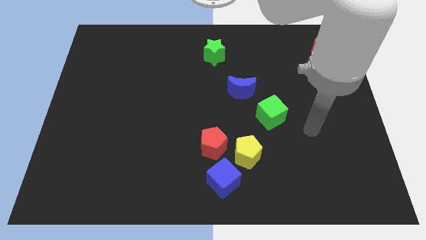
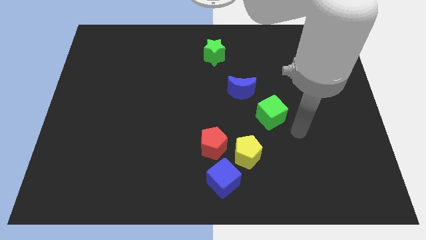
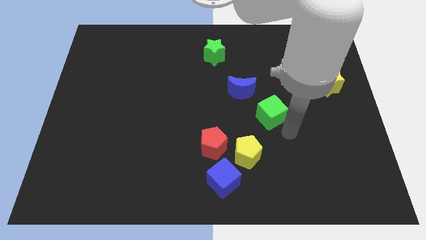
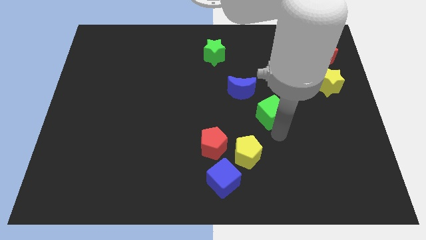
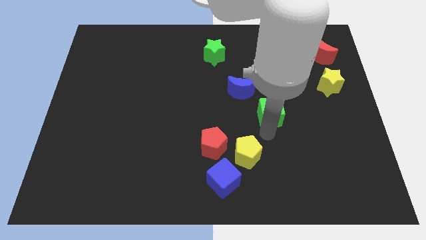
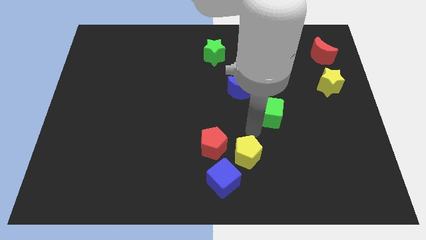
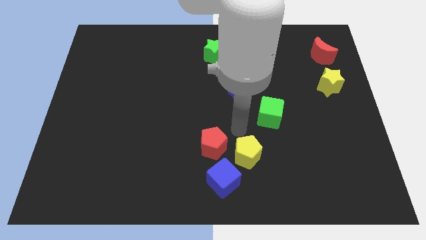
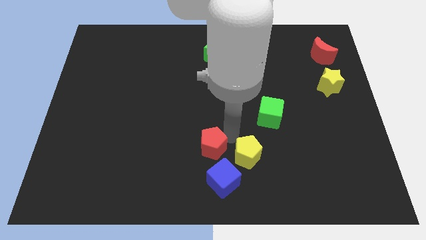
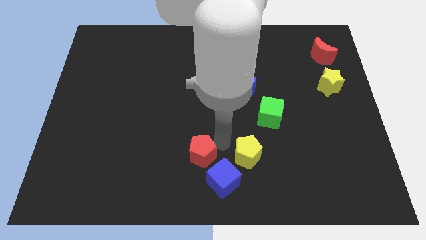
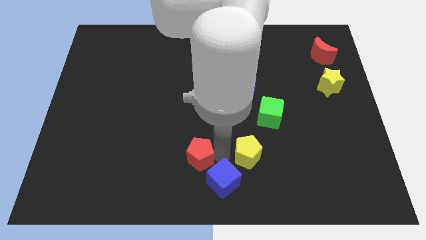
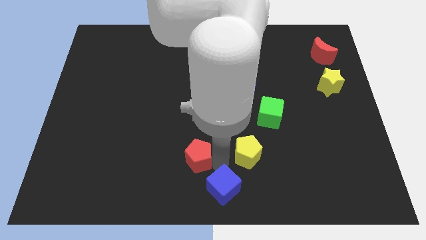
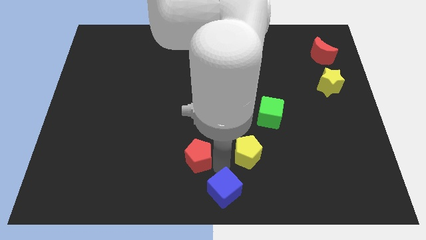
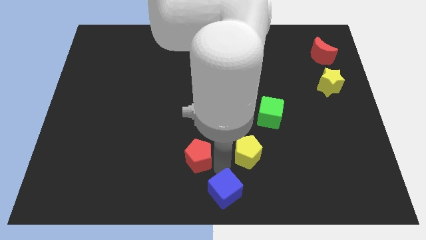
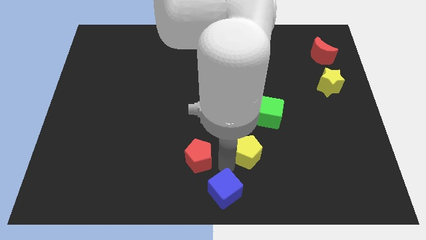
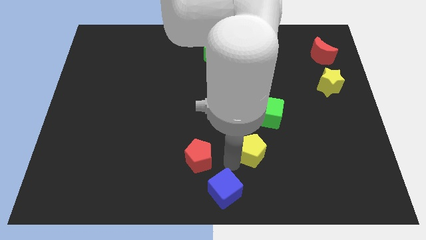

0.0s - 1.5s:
move the yellow pentagon away from the red pentagon and blue cube

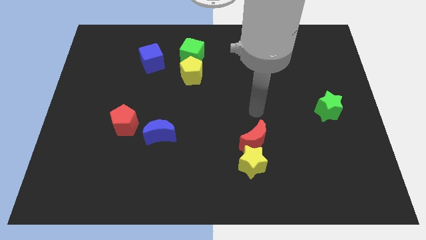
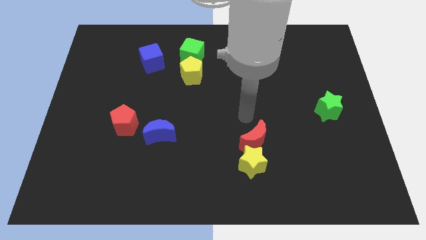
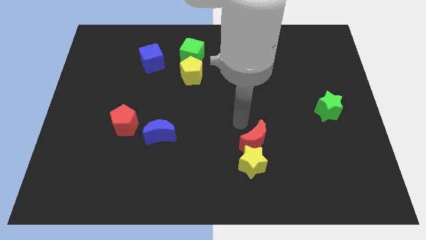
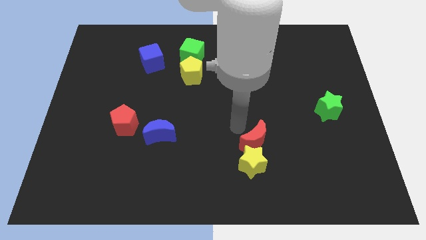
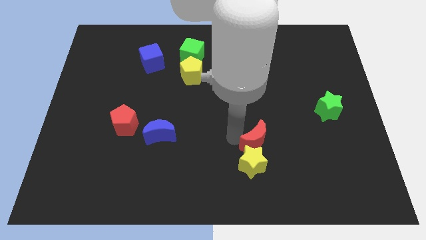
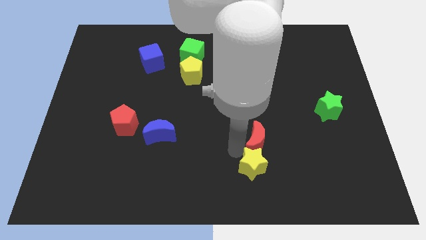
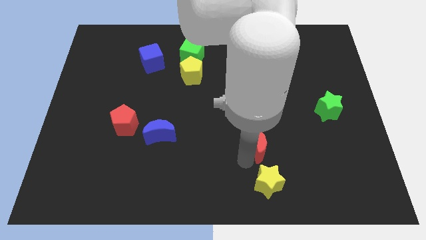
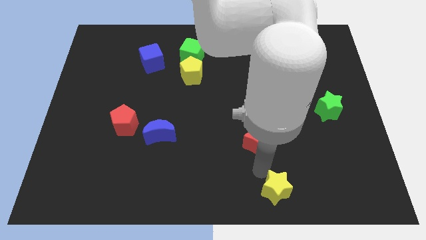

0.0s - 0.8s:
separate the red moon from the yellow star

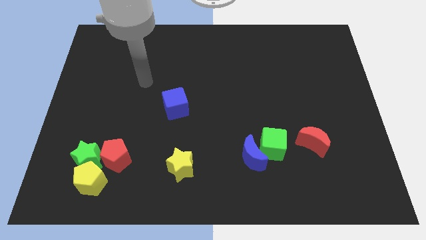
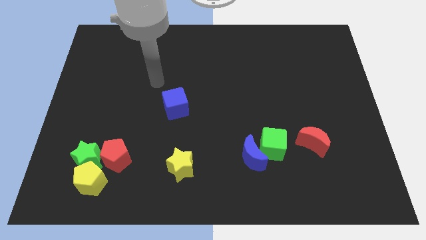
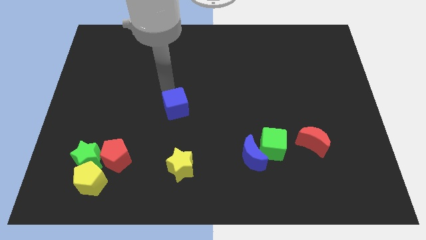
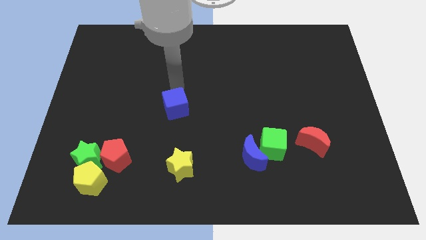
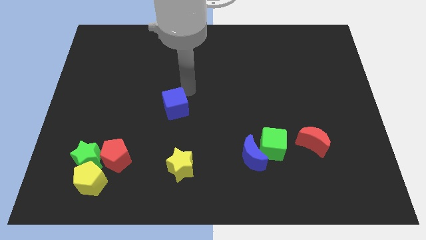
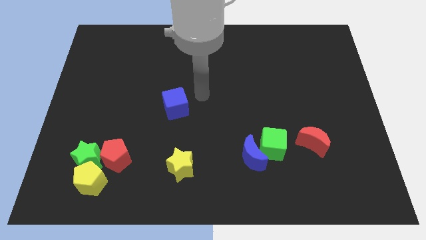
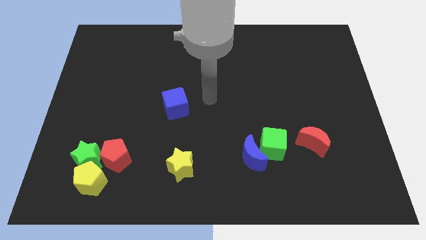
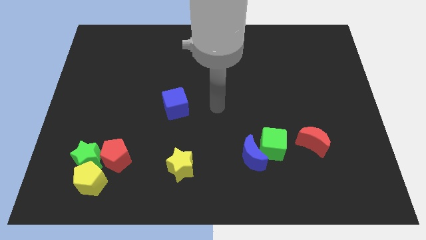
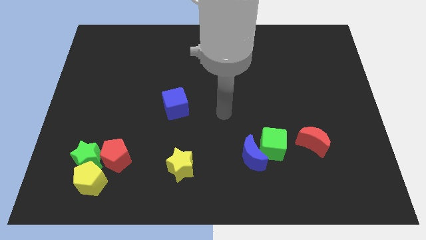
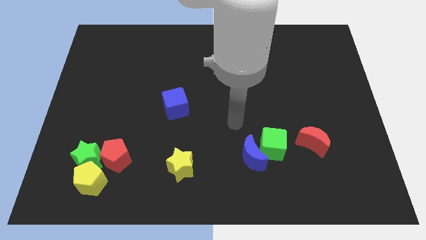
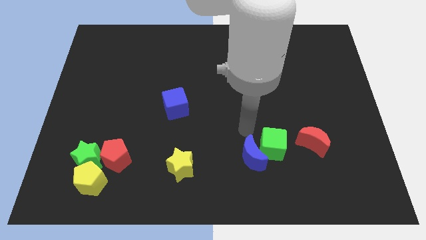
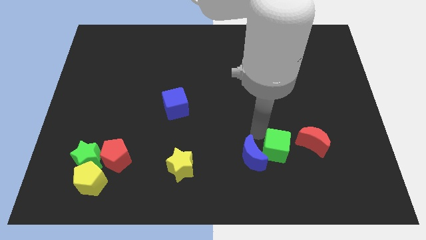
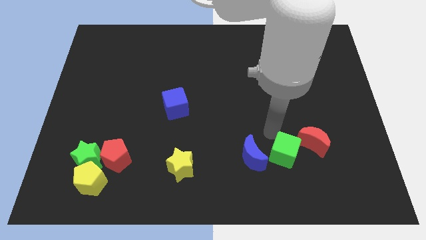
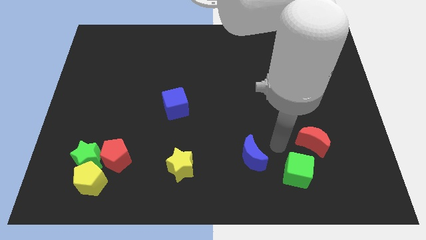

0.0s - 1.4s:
pull the blue moon apart from the green cube

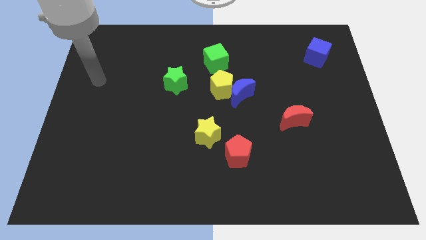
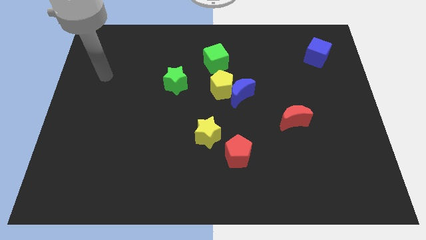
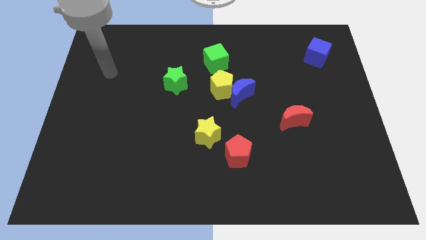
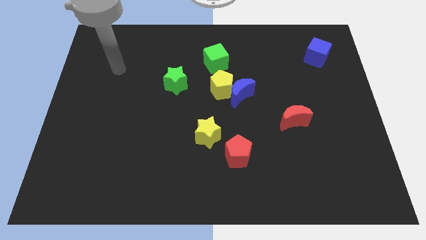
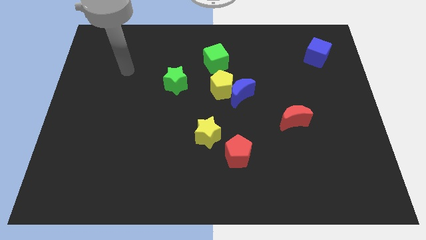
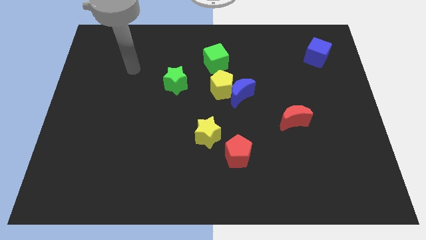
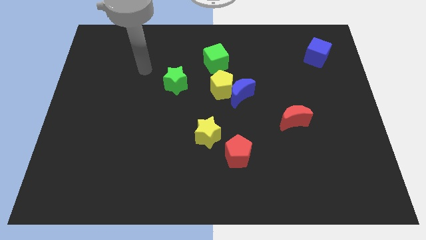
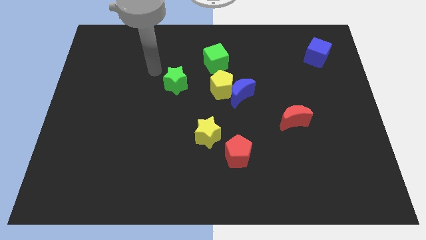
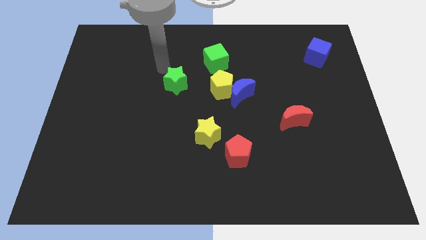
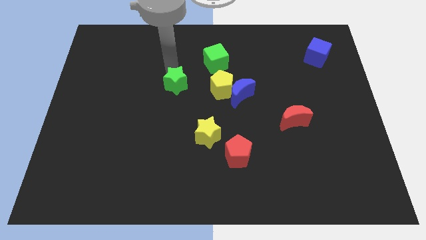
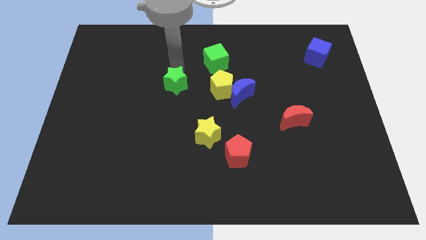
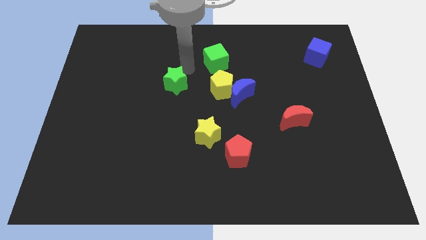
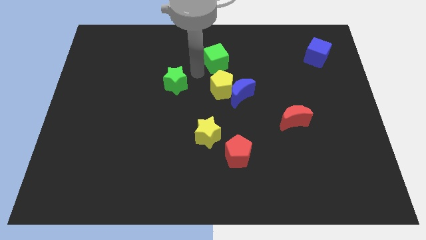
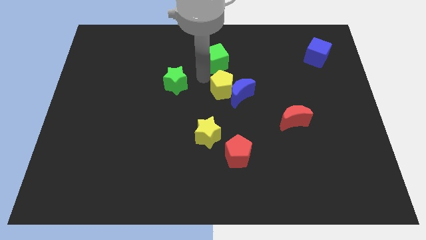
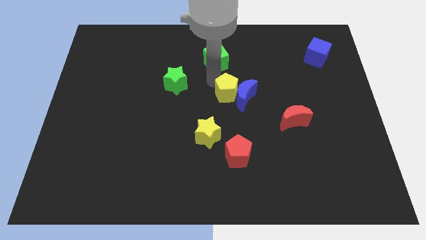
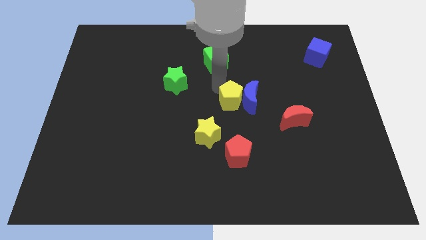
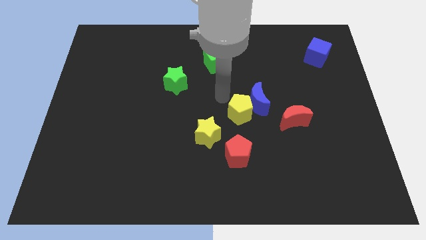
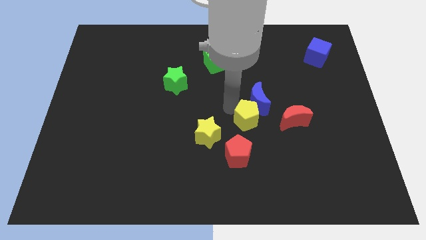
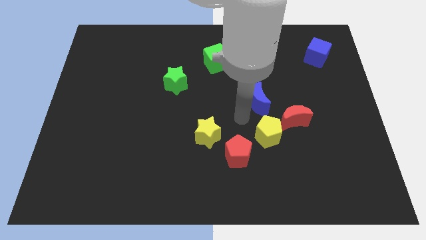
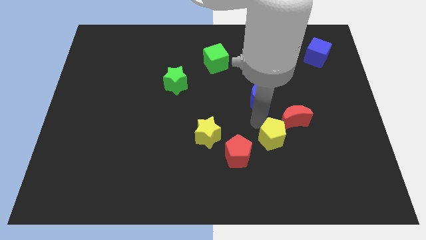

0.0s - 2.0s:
move the blue moon away from the yellow pentagon

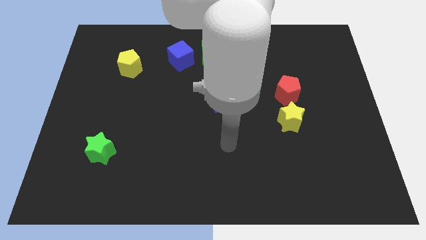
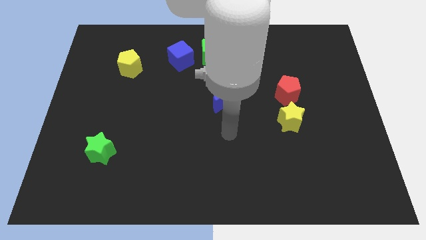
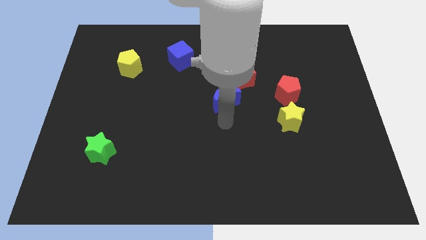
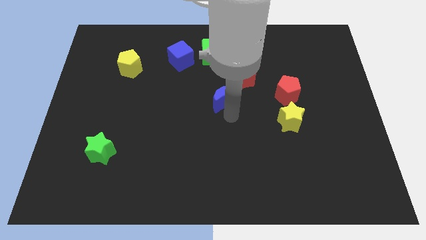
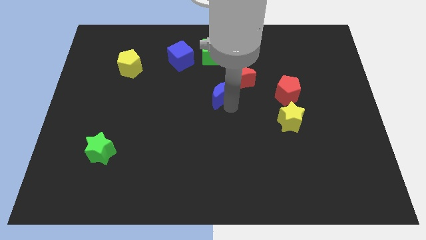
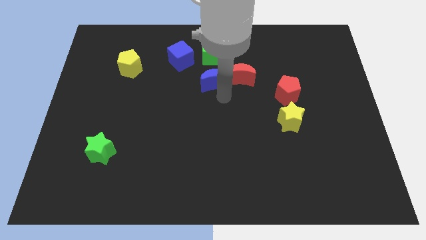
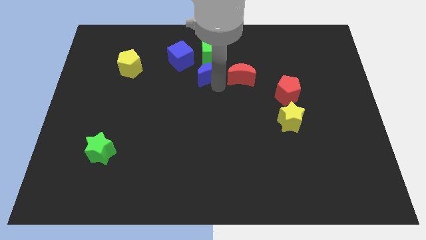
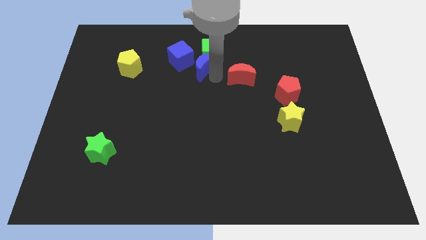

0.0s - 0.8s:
separate the red moon from the blue moon

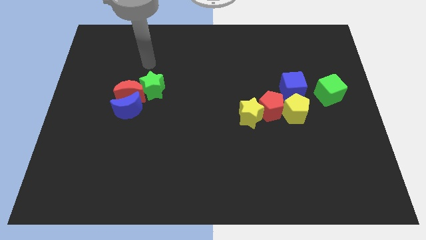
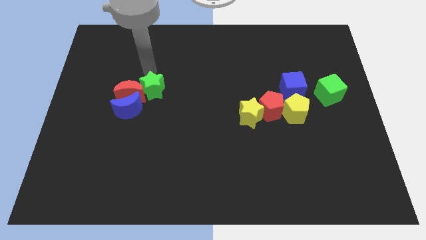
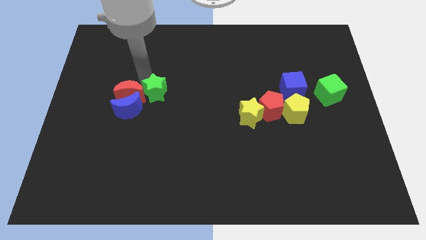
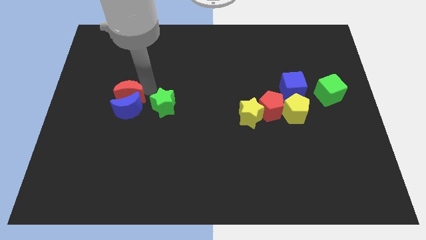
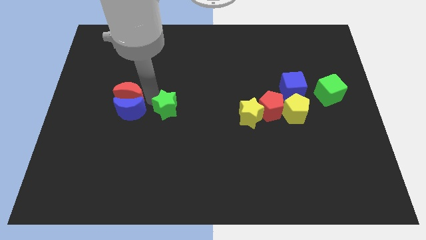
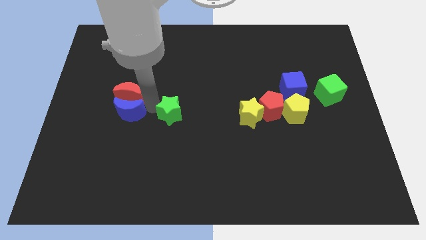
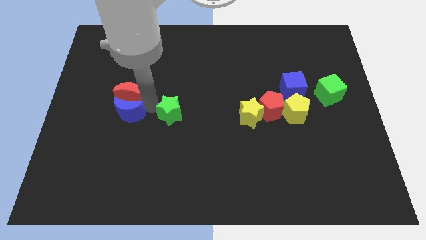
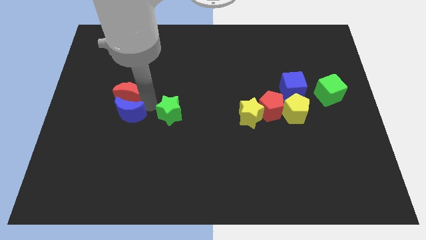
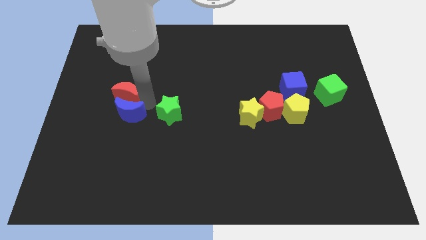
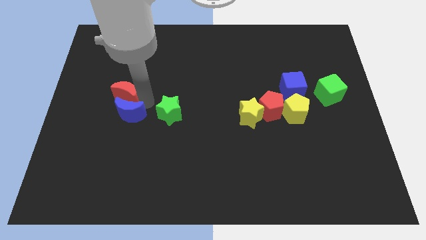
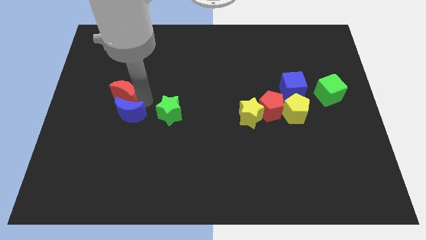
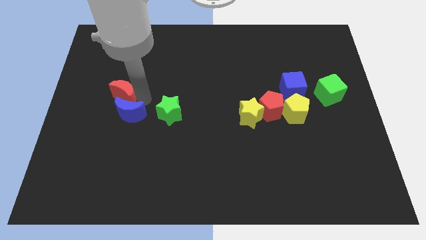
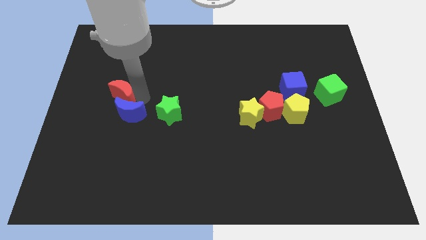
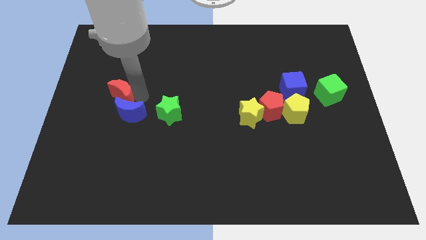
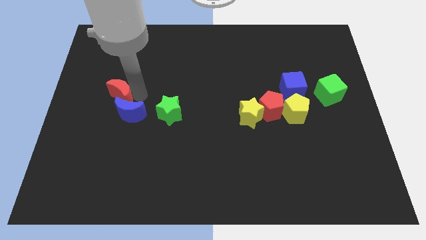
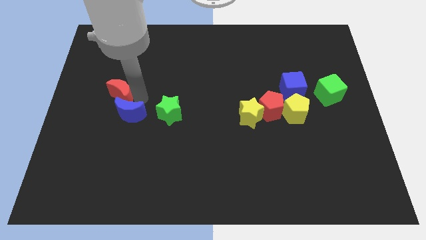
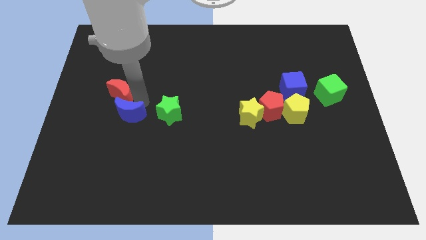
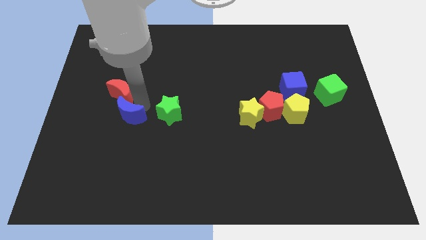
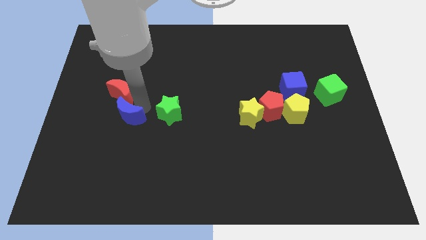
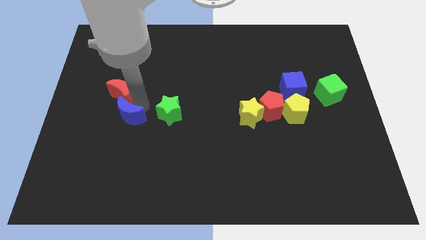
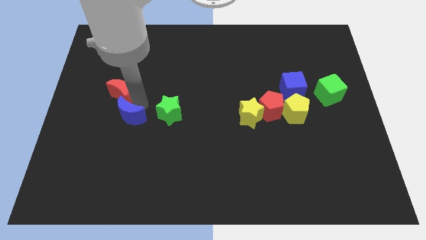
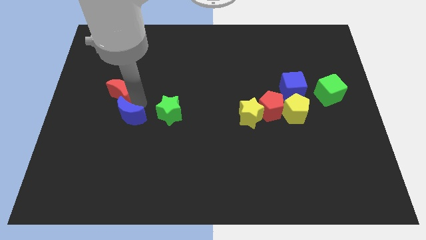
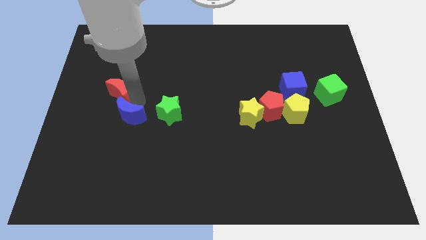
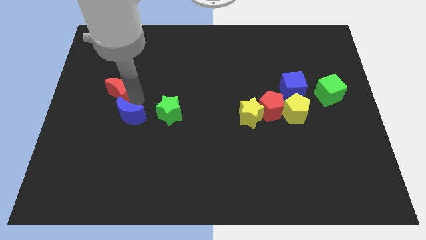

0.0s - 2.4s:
move the red moon away from the blue moon and green star

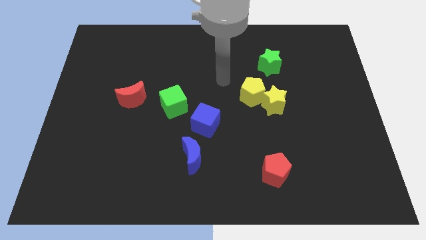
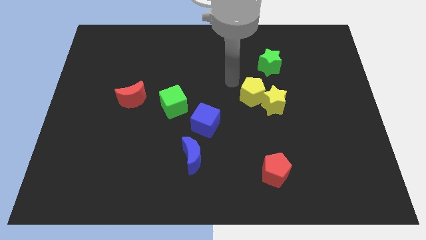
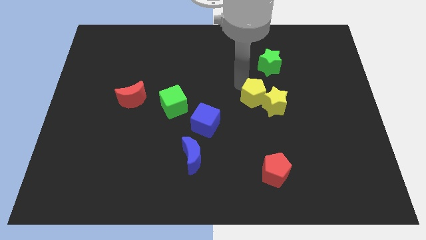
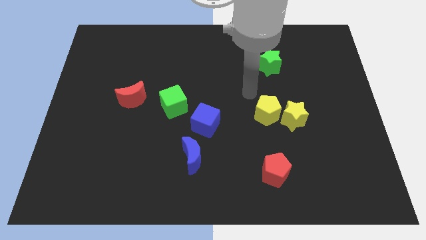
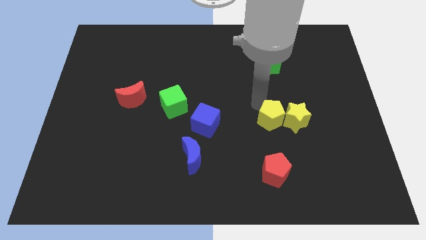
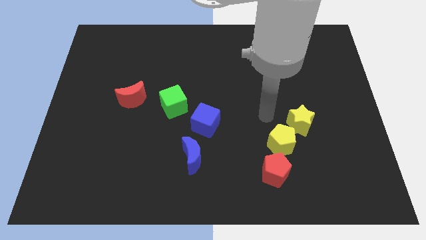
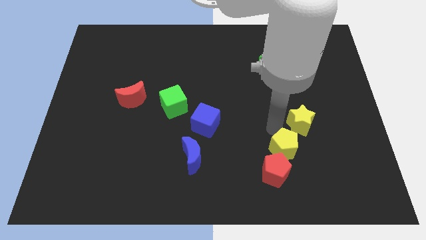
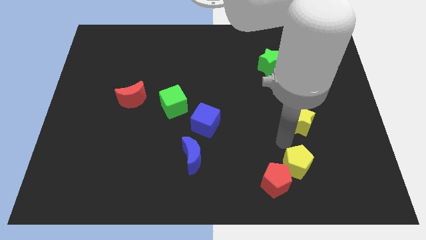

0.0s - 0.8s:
move the yellow star away from the yellow pentagon
